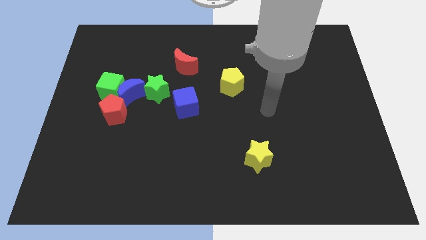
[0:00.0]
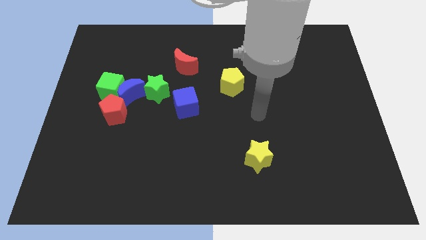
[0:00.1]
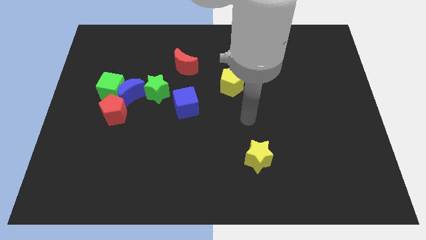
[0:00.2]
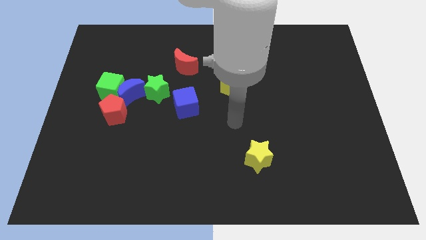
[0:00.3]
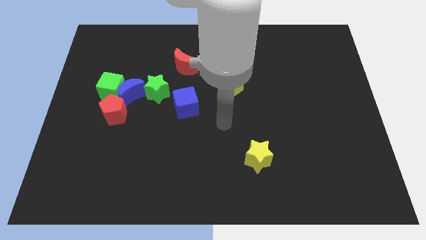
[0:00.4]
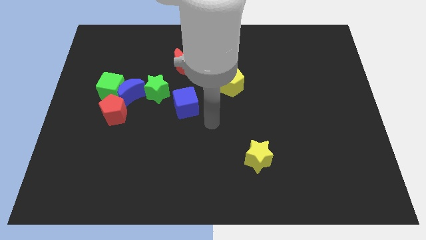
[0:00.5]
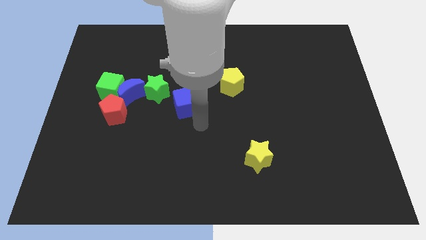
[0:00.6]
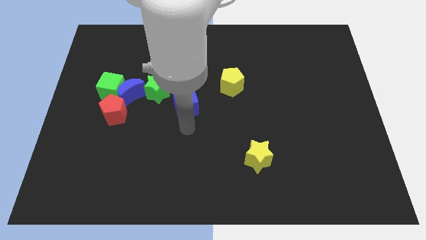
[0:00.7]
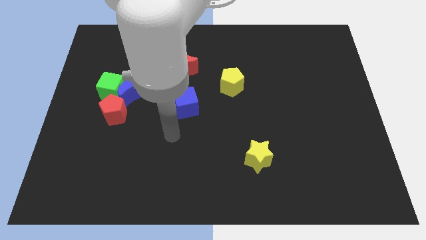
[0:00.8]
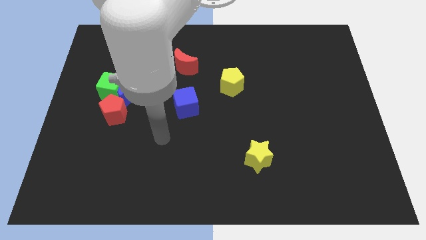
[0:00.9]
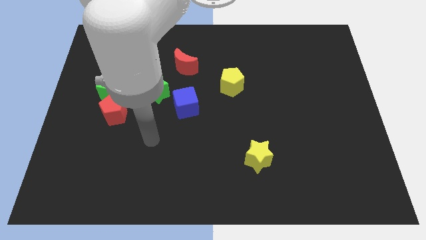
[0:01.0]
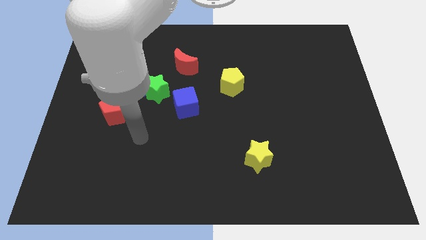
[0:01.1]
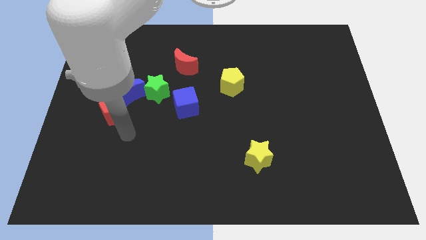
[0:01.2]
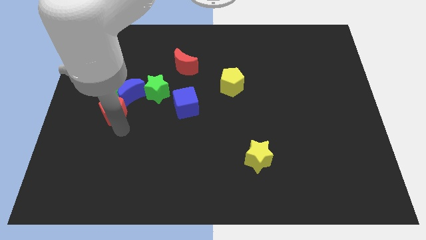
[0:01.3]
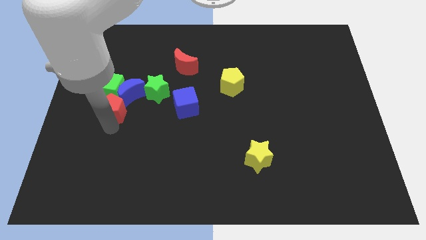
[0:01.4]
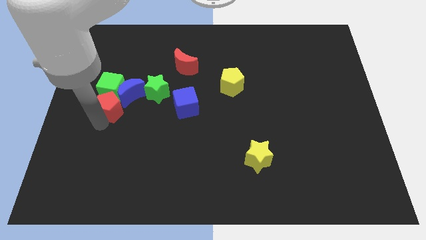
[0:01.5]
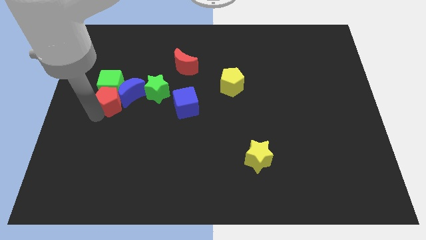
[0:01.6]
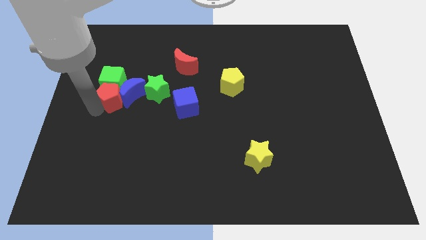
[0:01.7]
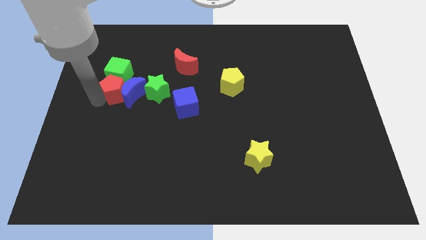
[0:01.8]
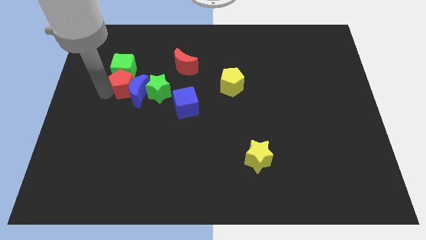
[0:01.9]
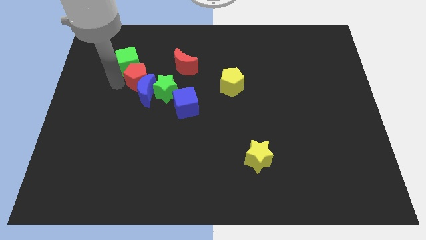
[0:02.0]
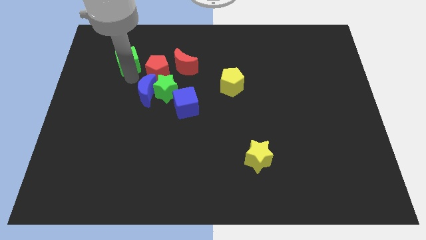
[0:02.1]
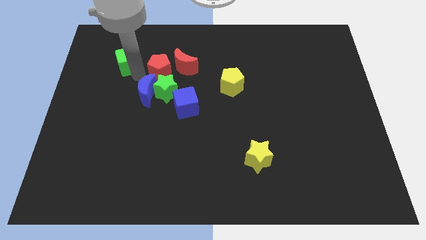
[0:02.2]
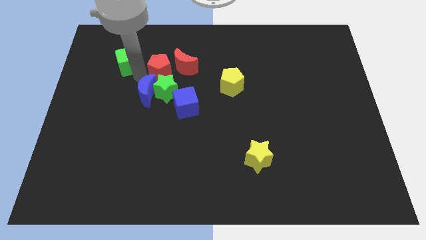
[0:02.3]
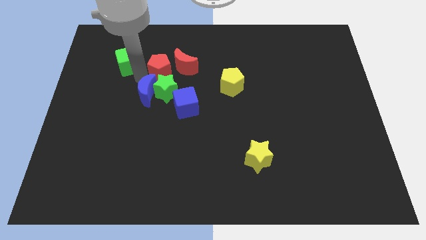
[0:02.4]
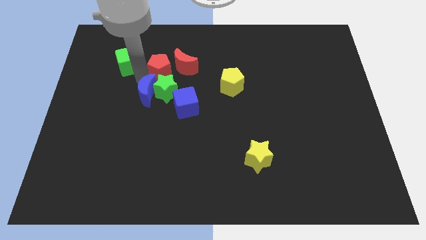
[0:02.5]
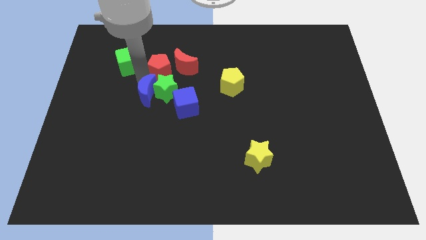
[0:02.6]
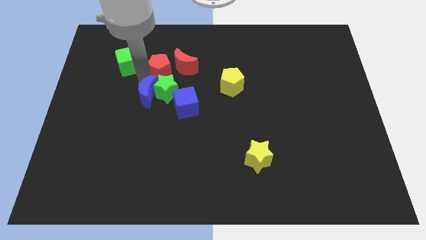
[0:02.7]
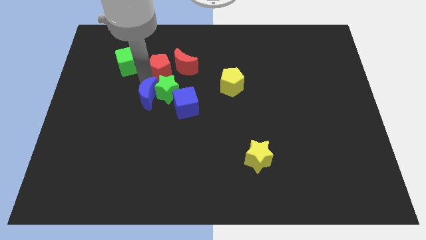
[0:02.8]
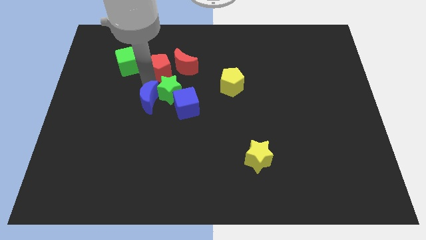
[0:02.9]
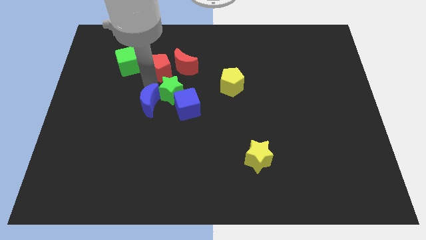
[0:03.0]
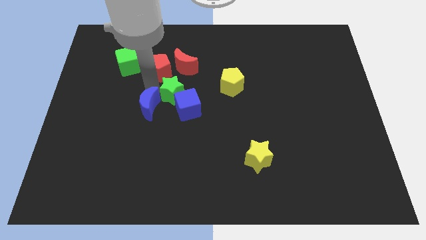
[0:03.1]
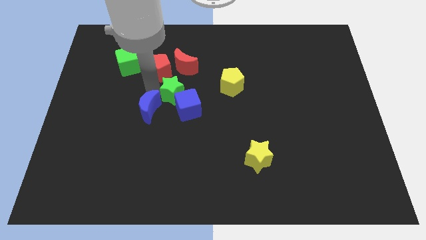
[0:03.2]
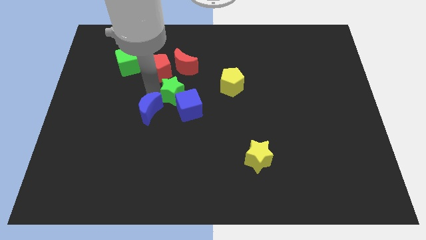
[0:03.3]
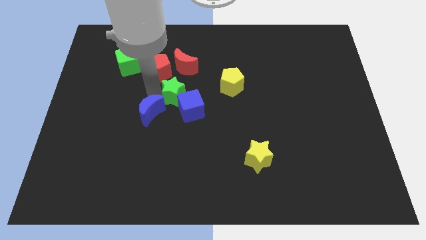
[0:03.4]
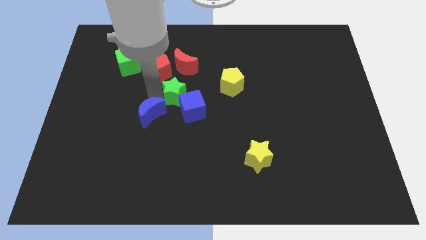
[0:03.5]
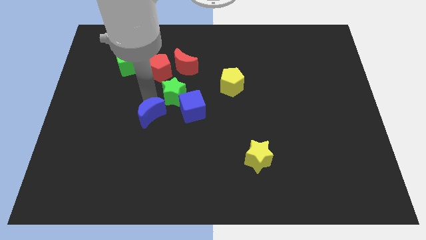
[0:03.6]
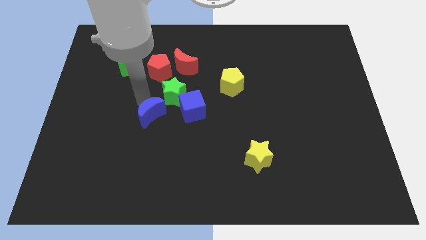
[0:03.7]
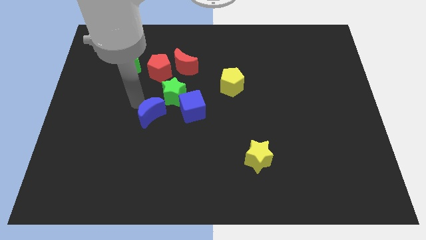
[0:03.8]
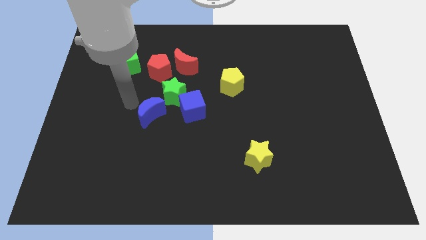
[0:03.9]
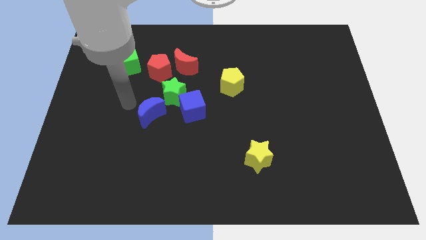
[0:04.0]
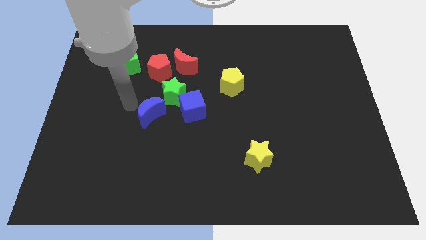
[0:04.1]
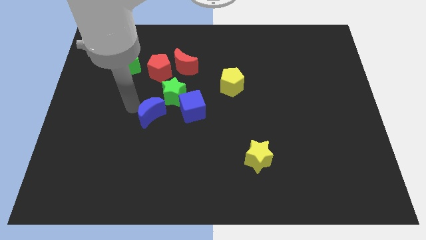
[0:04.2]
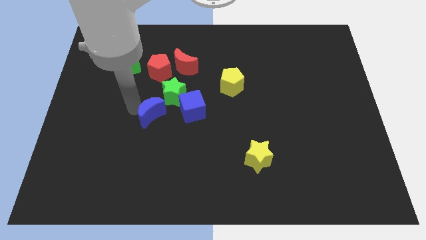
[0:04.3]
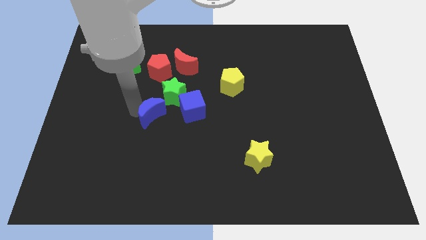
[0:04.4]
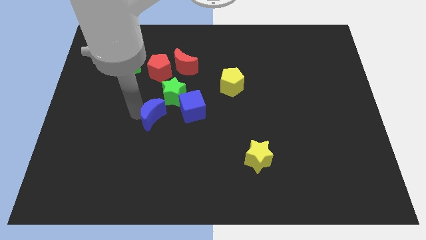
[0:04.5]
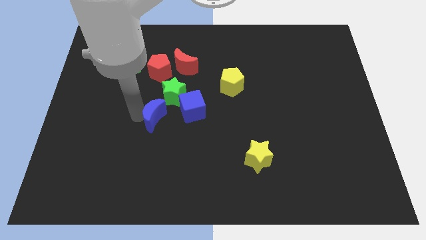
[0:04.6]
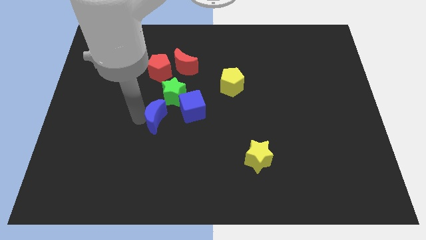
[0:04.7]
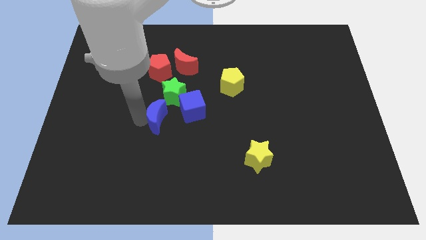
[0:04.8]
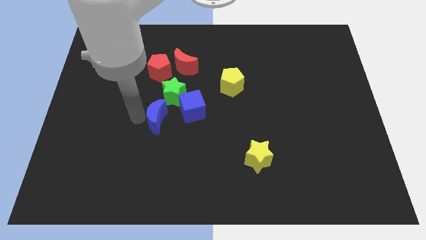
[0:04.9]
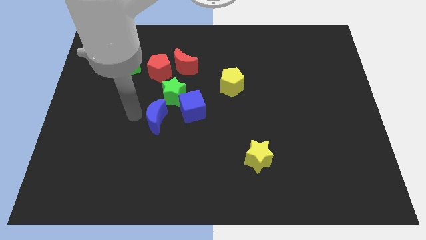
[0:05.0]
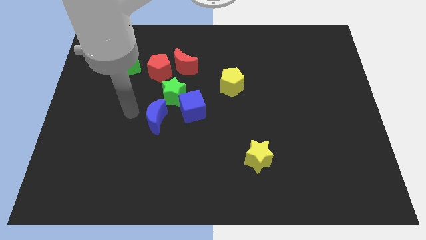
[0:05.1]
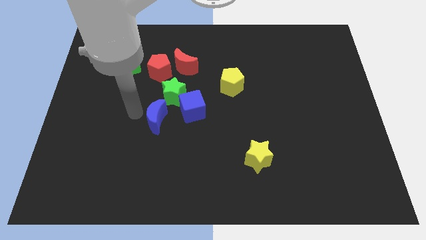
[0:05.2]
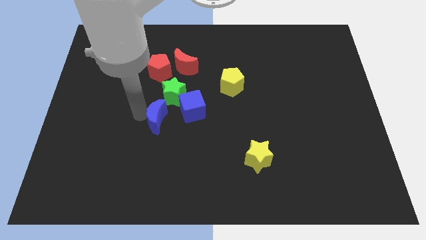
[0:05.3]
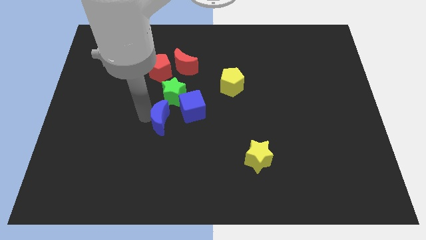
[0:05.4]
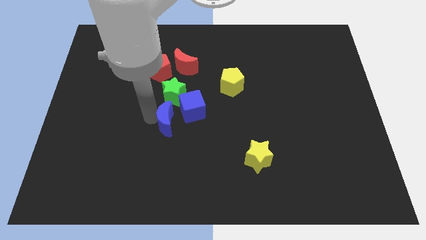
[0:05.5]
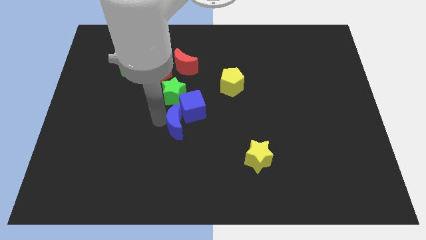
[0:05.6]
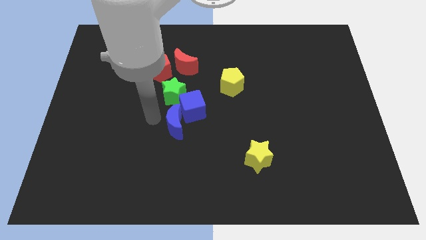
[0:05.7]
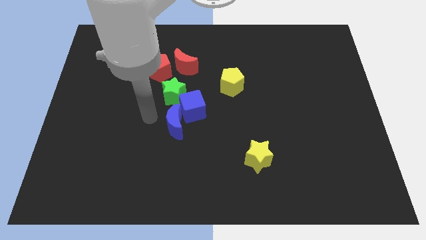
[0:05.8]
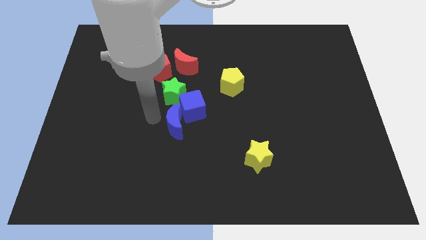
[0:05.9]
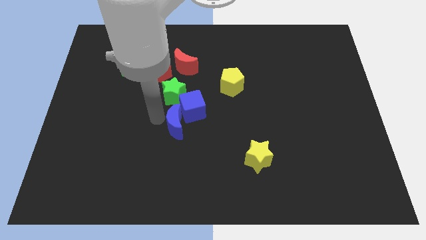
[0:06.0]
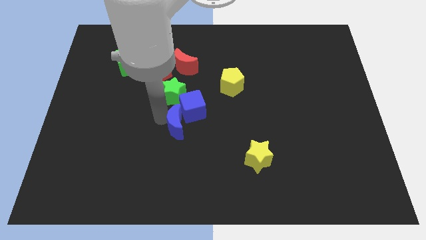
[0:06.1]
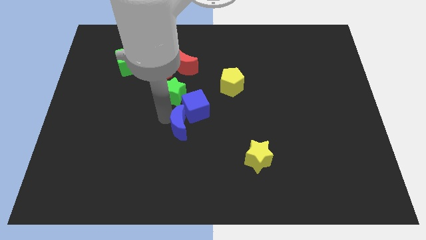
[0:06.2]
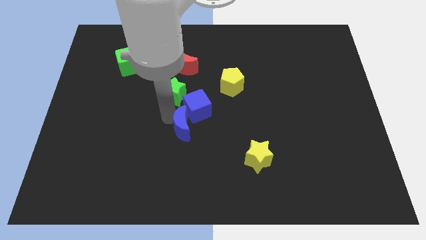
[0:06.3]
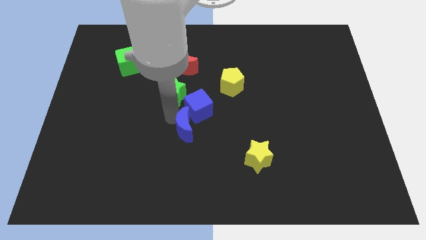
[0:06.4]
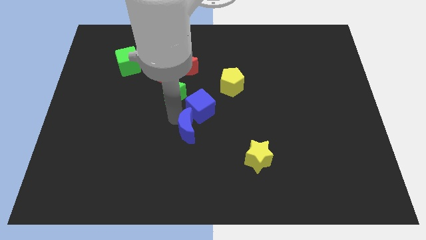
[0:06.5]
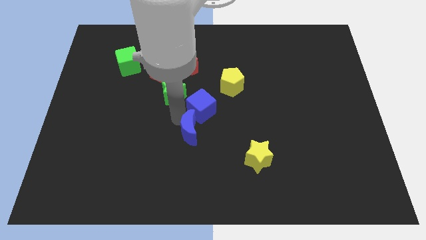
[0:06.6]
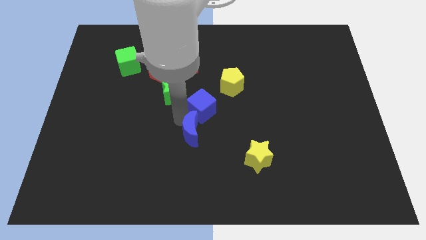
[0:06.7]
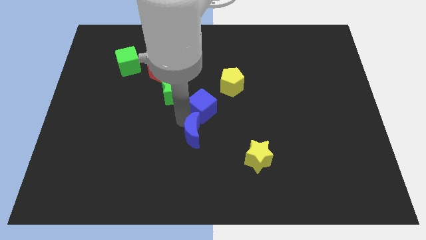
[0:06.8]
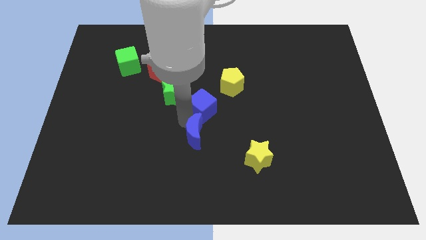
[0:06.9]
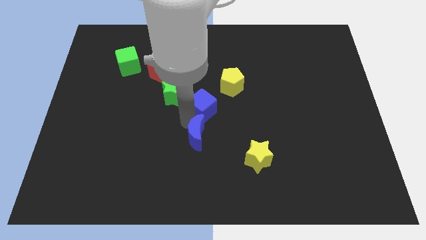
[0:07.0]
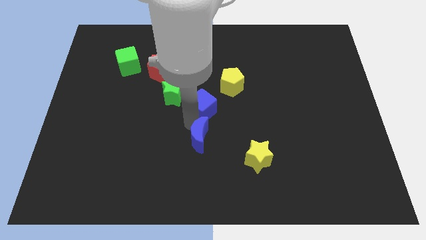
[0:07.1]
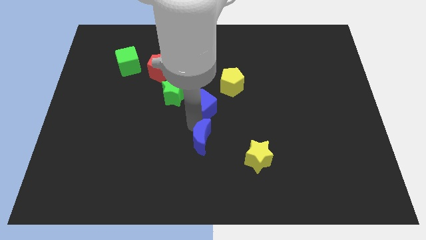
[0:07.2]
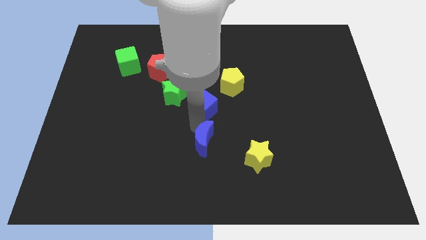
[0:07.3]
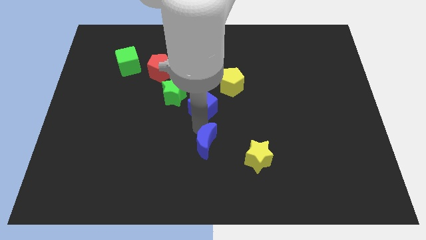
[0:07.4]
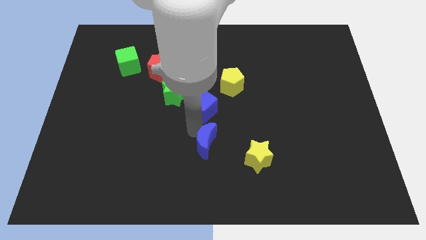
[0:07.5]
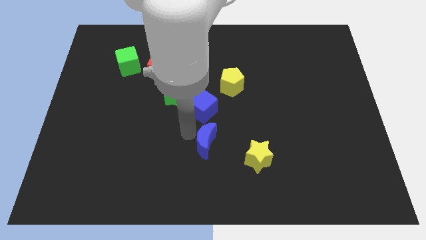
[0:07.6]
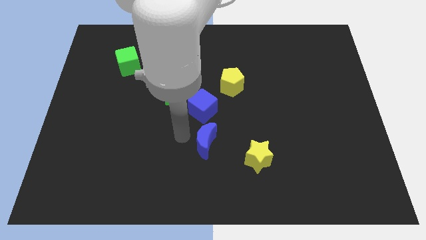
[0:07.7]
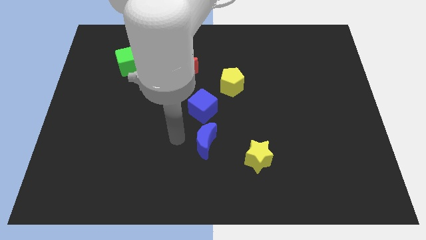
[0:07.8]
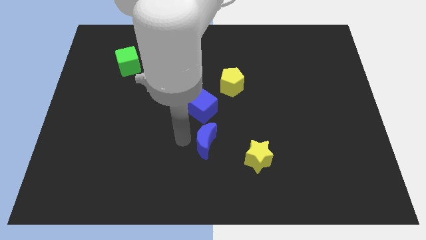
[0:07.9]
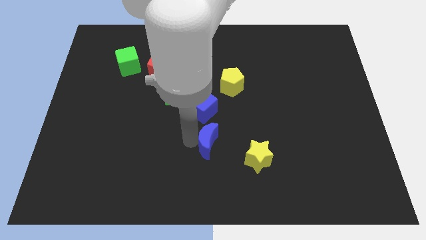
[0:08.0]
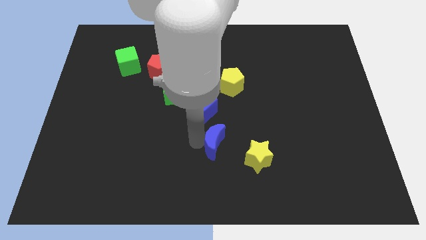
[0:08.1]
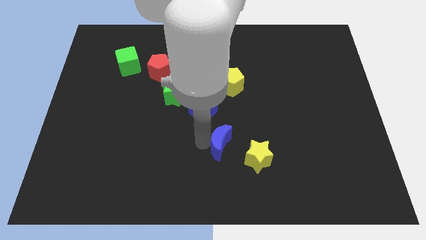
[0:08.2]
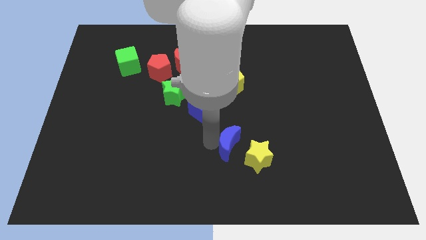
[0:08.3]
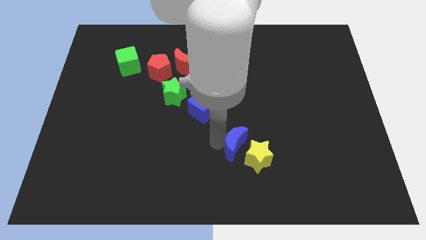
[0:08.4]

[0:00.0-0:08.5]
move the blue moon to the yellow star
